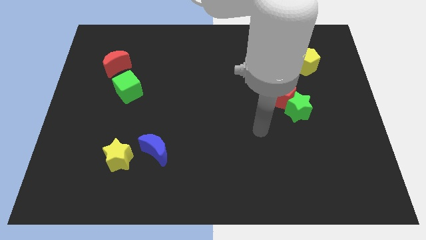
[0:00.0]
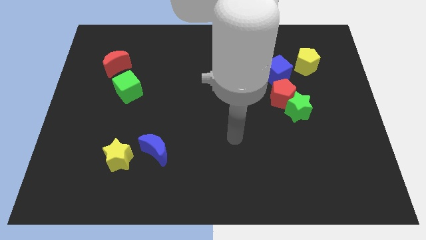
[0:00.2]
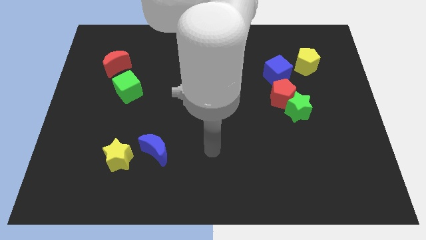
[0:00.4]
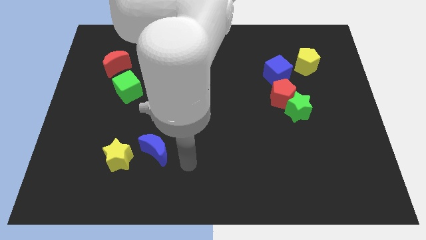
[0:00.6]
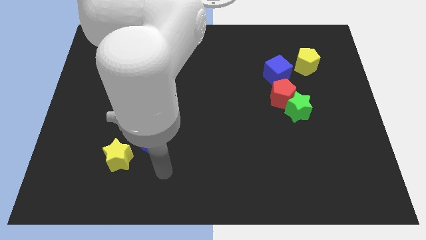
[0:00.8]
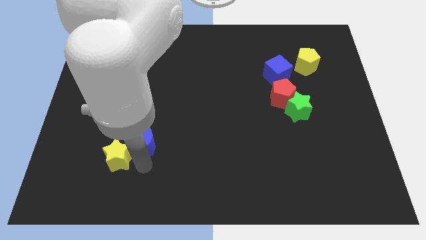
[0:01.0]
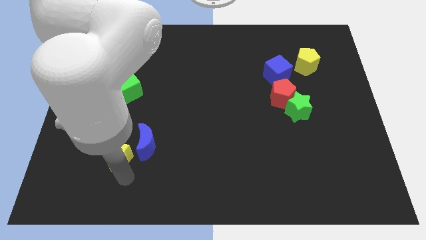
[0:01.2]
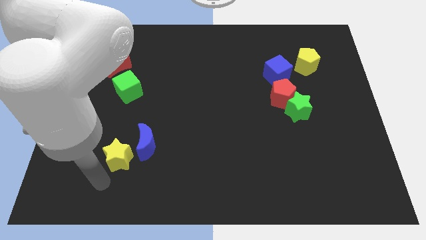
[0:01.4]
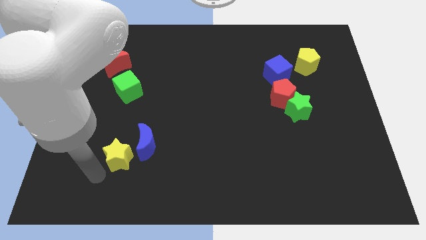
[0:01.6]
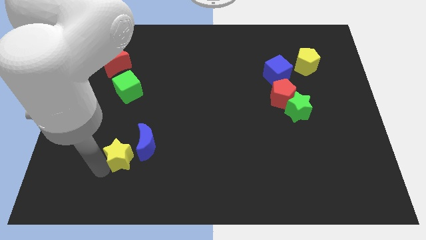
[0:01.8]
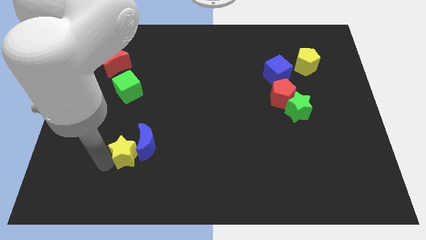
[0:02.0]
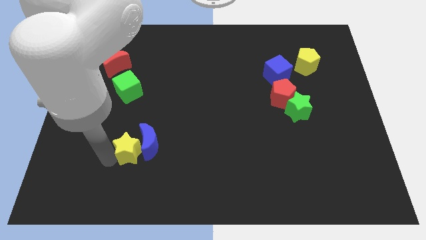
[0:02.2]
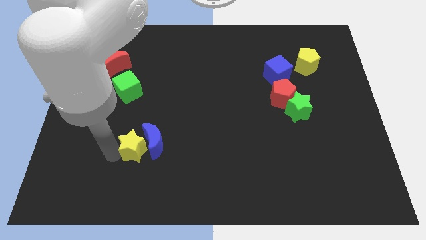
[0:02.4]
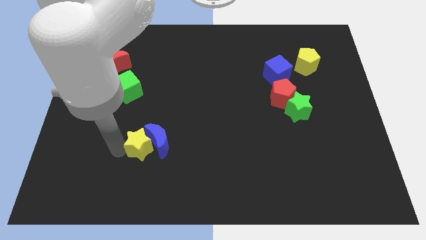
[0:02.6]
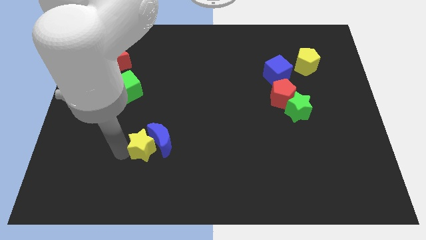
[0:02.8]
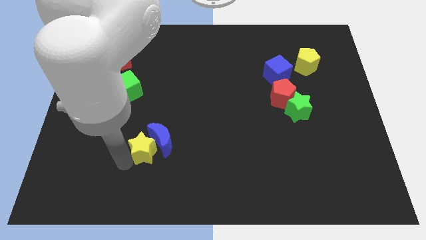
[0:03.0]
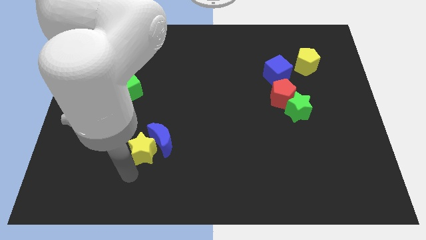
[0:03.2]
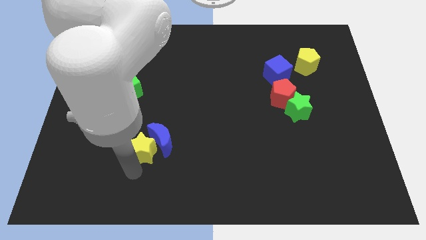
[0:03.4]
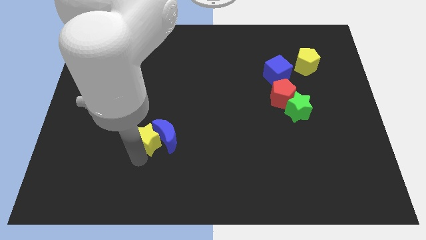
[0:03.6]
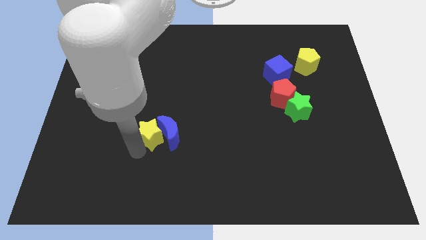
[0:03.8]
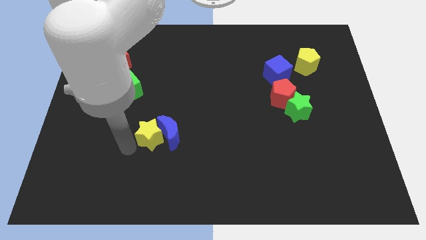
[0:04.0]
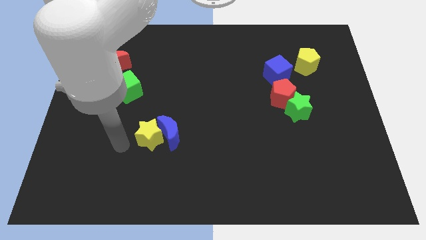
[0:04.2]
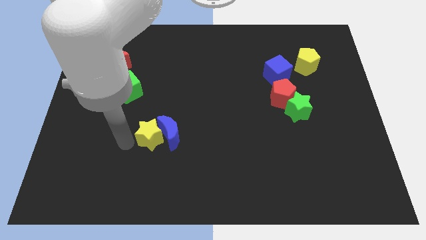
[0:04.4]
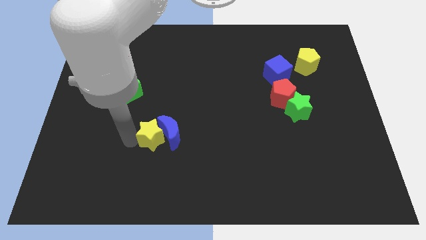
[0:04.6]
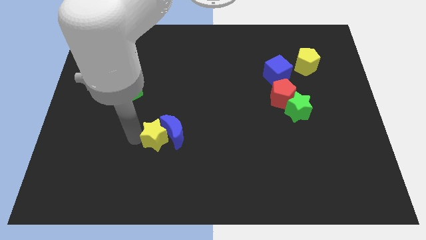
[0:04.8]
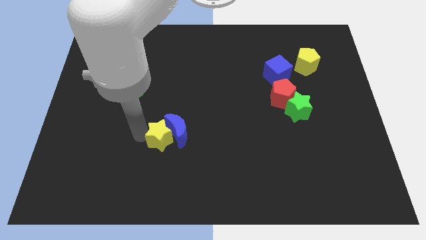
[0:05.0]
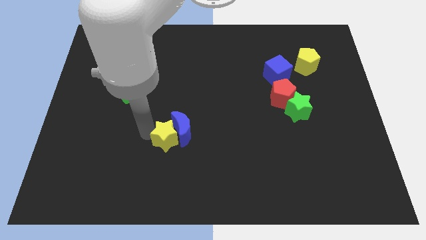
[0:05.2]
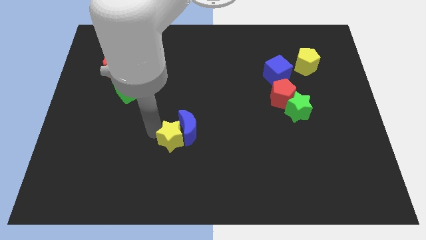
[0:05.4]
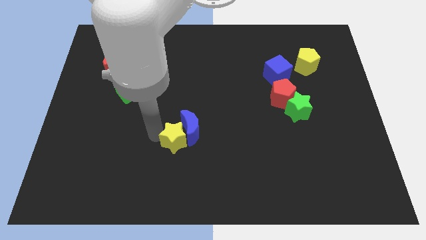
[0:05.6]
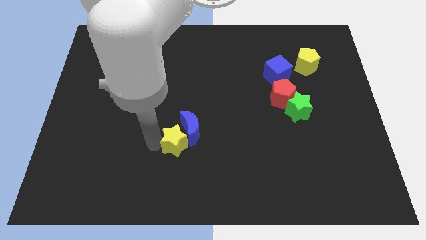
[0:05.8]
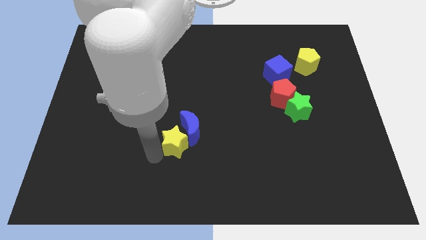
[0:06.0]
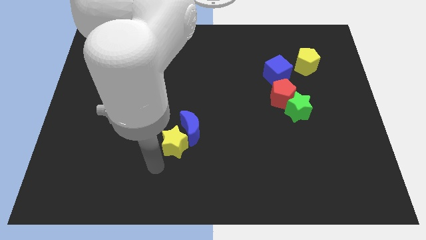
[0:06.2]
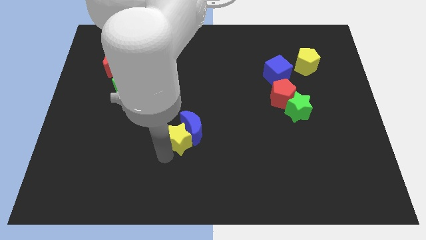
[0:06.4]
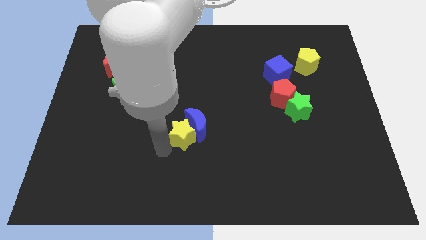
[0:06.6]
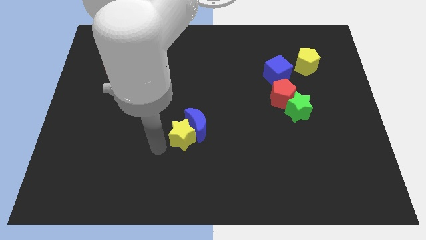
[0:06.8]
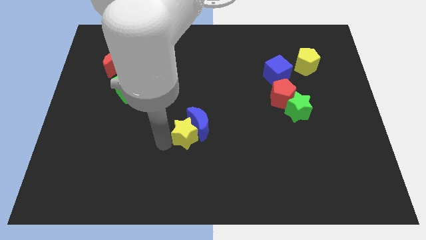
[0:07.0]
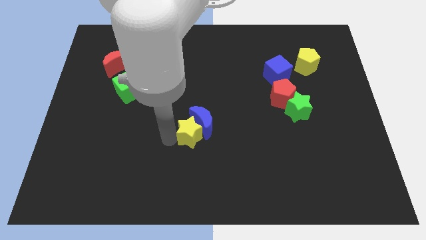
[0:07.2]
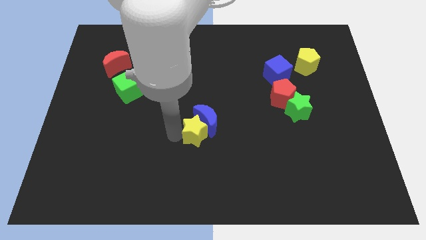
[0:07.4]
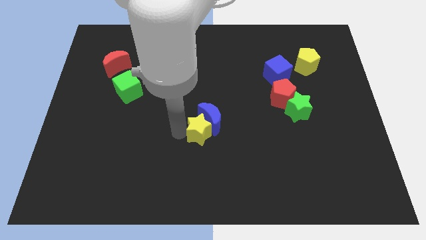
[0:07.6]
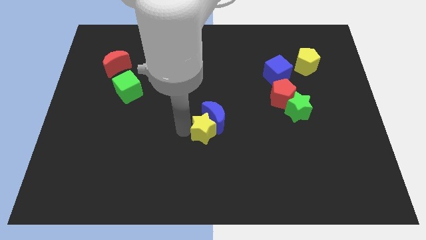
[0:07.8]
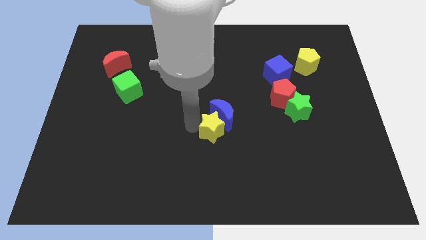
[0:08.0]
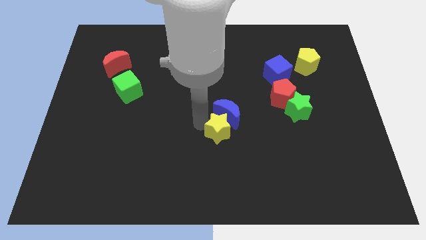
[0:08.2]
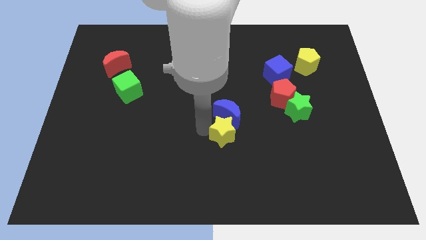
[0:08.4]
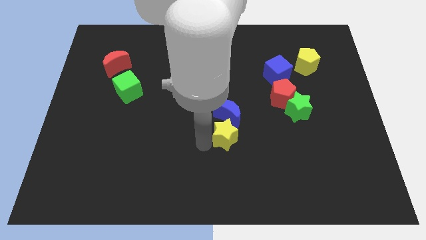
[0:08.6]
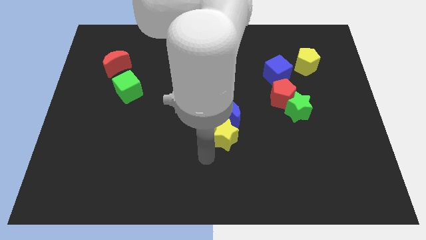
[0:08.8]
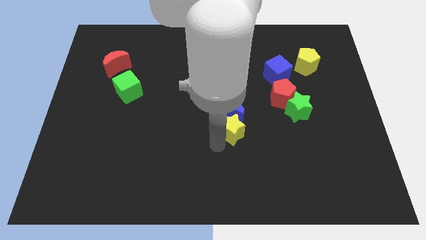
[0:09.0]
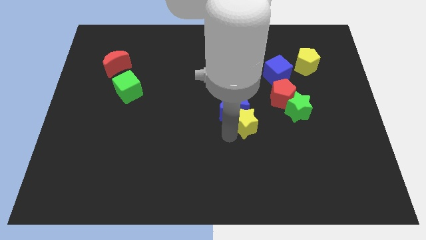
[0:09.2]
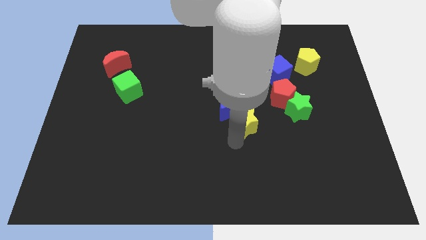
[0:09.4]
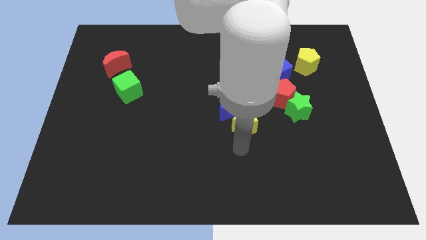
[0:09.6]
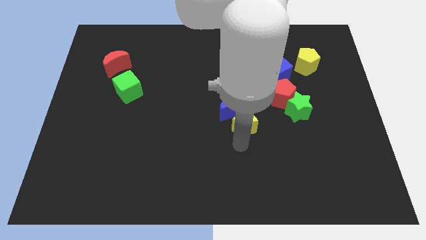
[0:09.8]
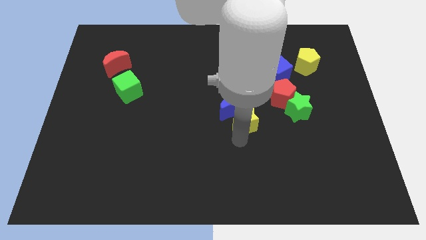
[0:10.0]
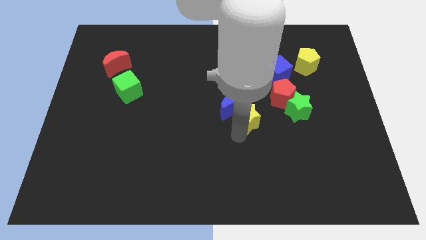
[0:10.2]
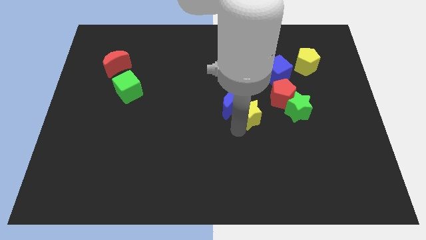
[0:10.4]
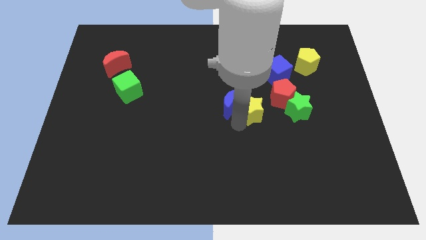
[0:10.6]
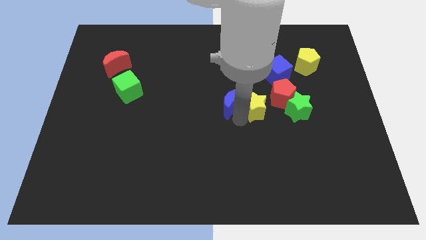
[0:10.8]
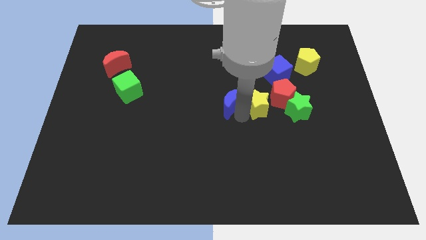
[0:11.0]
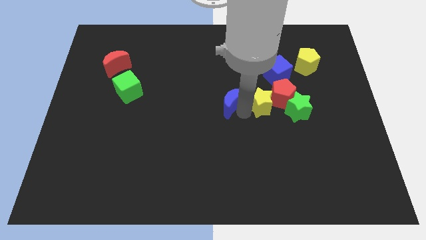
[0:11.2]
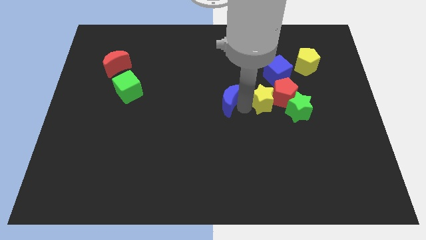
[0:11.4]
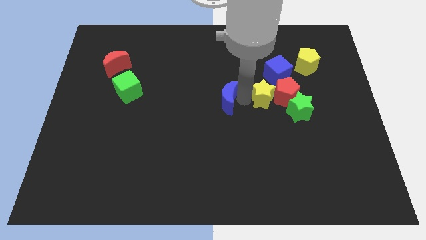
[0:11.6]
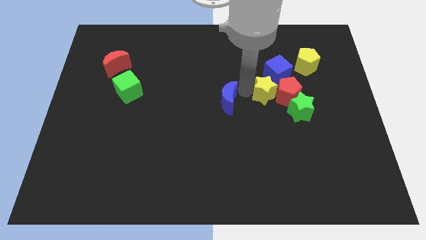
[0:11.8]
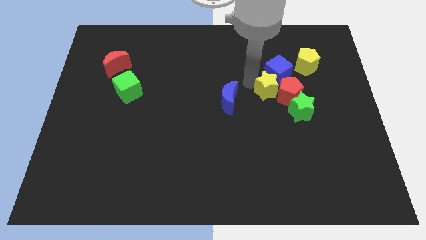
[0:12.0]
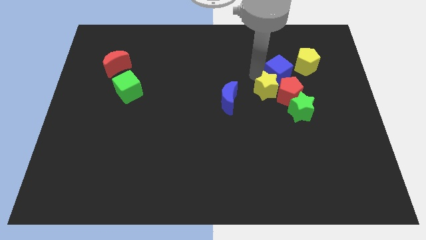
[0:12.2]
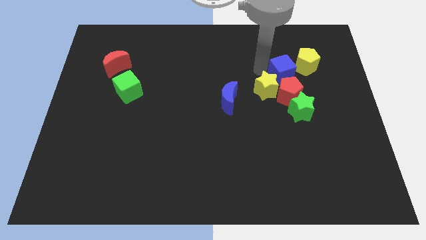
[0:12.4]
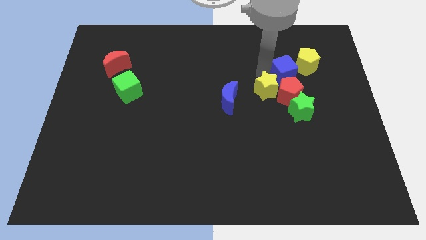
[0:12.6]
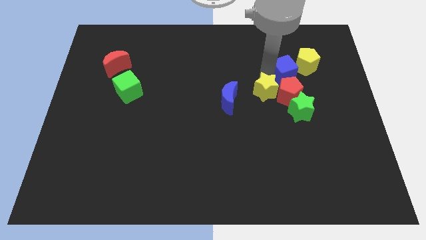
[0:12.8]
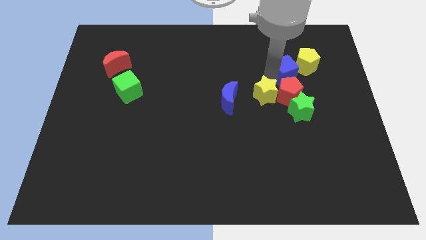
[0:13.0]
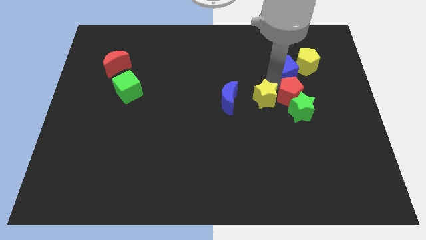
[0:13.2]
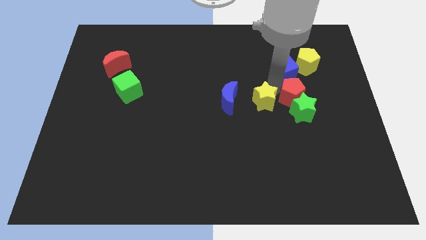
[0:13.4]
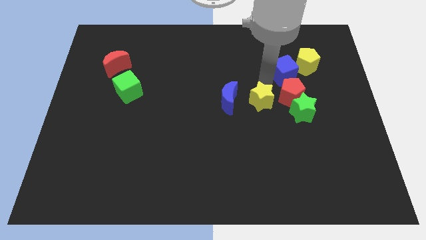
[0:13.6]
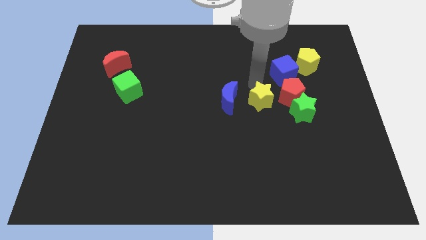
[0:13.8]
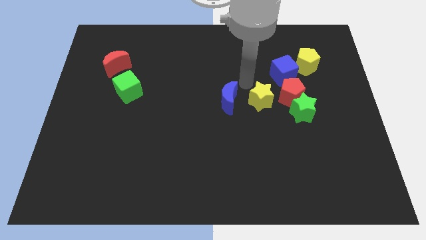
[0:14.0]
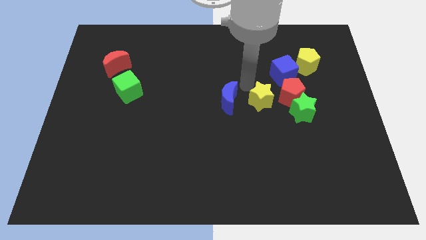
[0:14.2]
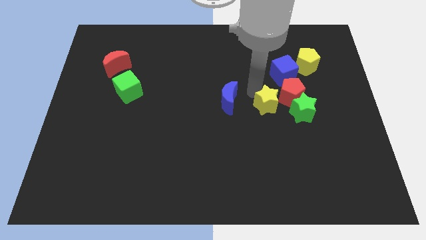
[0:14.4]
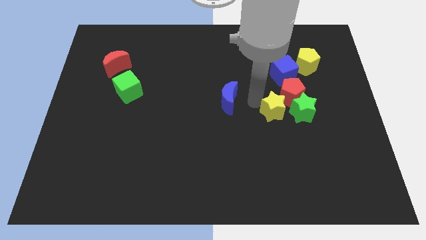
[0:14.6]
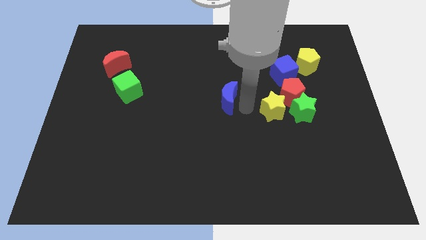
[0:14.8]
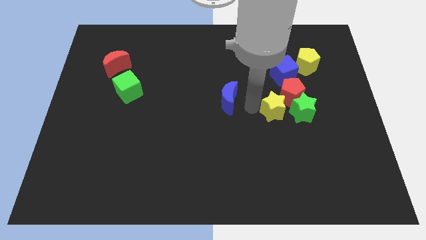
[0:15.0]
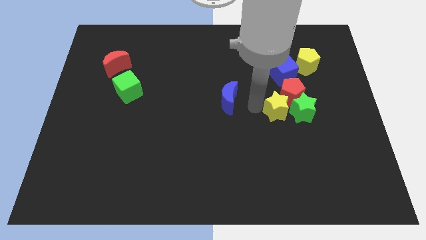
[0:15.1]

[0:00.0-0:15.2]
push the yellow star towards the green star
